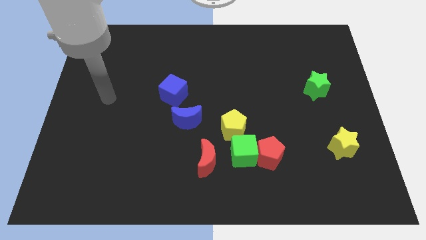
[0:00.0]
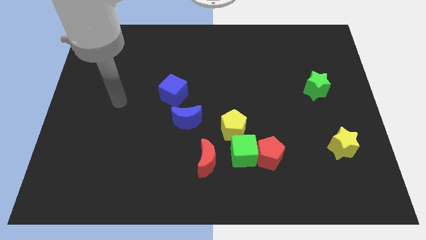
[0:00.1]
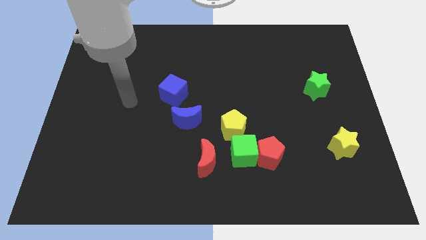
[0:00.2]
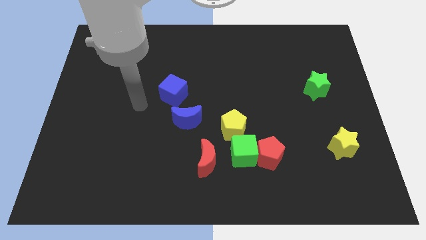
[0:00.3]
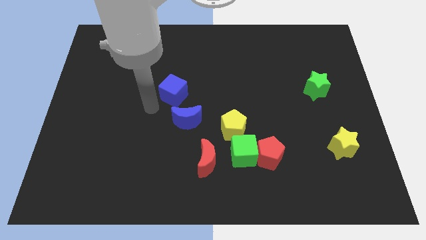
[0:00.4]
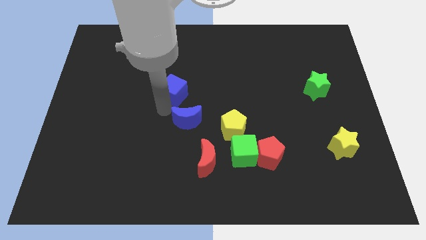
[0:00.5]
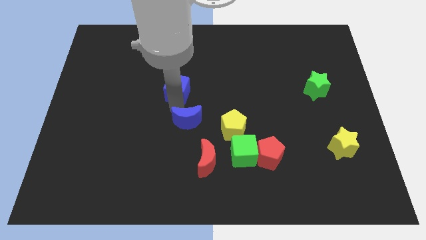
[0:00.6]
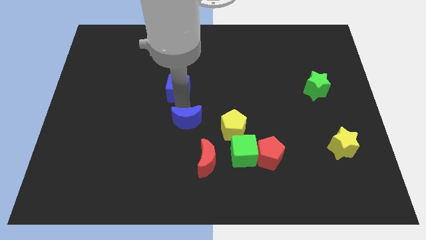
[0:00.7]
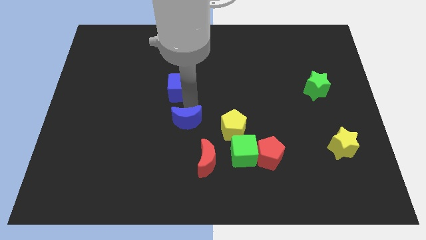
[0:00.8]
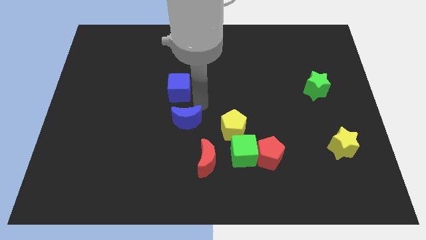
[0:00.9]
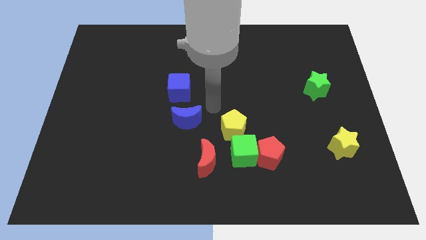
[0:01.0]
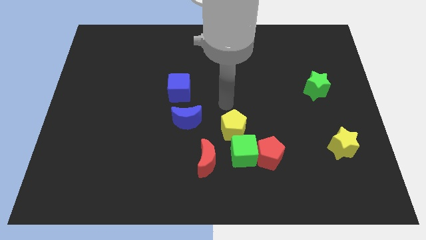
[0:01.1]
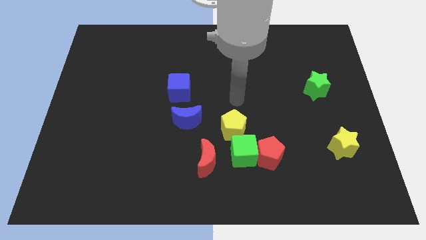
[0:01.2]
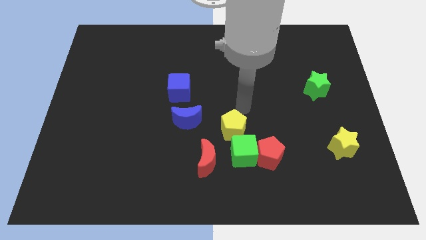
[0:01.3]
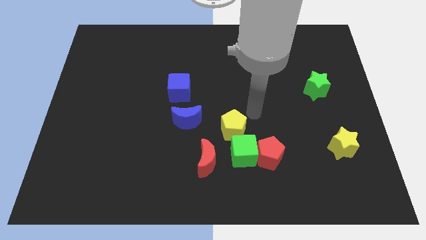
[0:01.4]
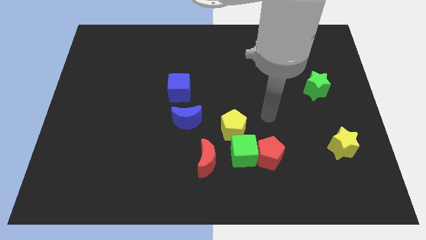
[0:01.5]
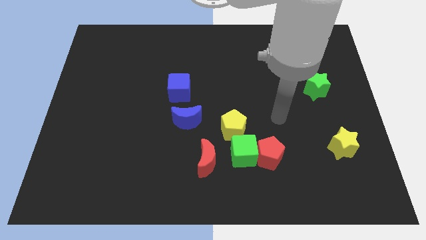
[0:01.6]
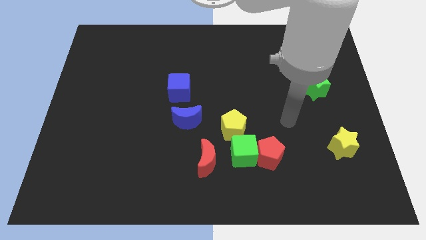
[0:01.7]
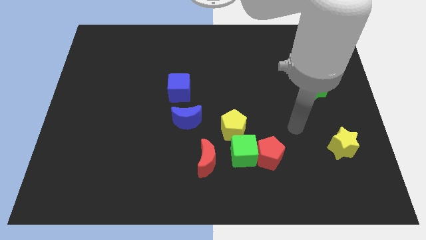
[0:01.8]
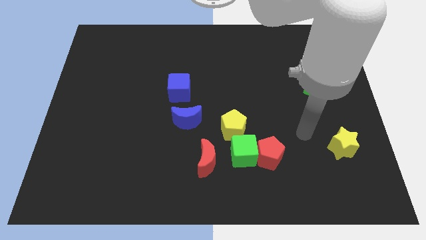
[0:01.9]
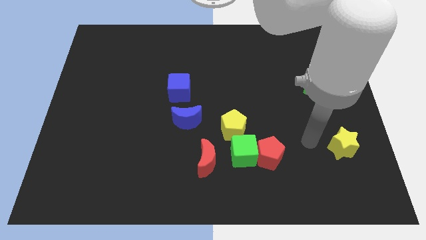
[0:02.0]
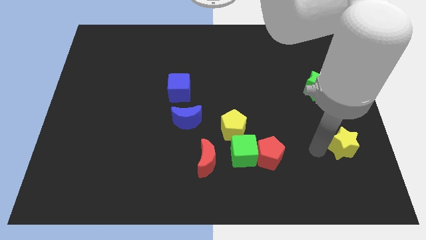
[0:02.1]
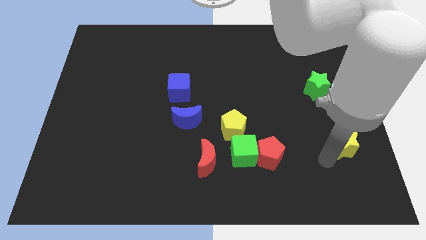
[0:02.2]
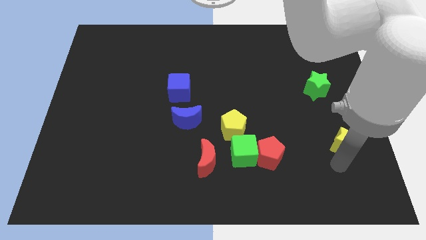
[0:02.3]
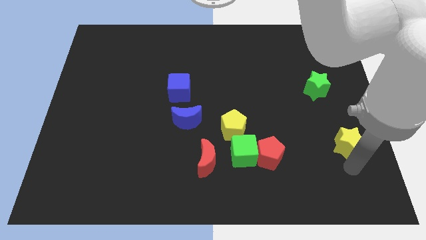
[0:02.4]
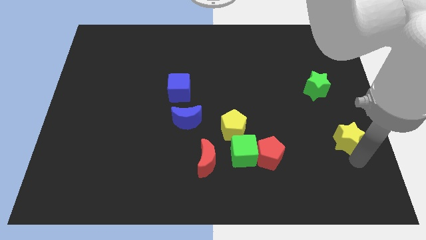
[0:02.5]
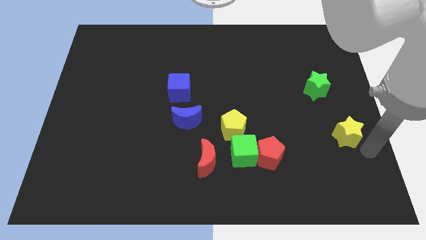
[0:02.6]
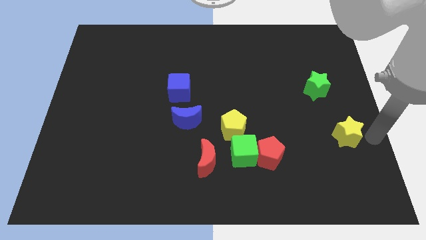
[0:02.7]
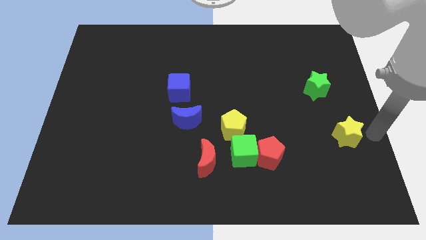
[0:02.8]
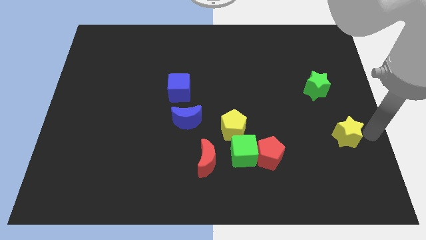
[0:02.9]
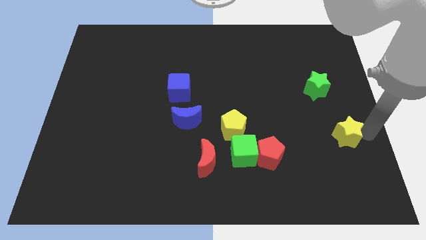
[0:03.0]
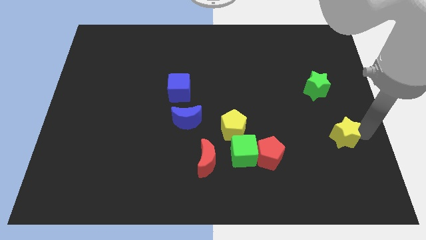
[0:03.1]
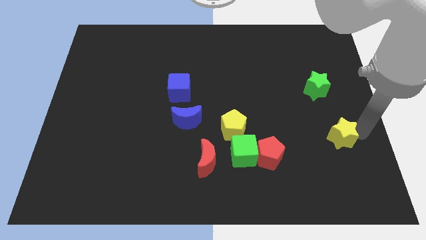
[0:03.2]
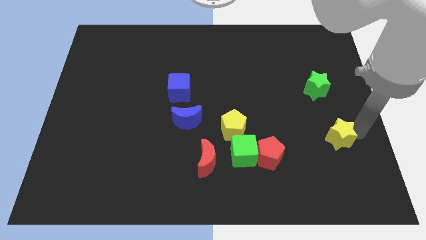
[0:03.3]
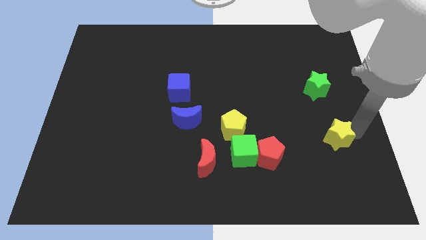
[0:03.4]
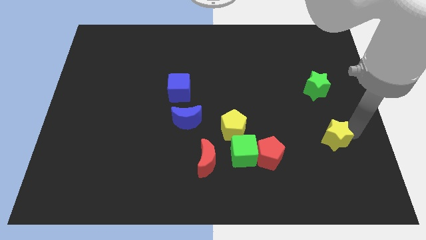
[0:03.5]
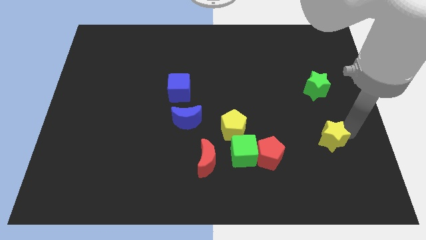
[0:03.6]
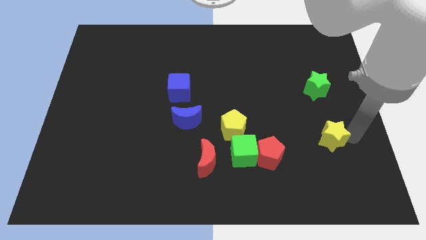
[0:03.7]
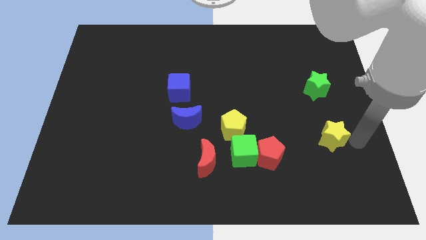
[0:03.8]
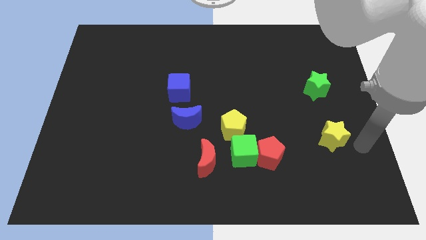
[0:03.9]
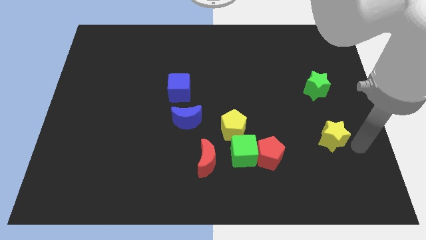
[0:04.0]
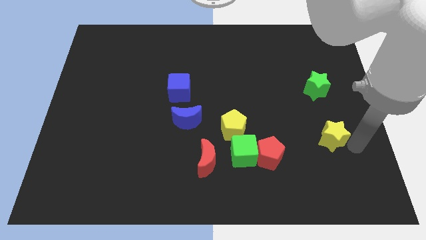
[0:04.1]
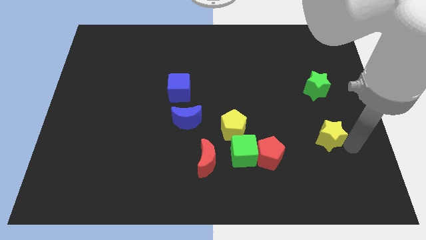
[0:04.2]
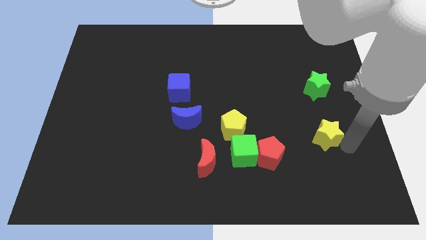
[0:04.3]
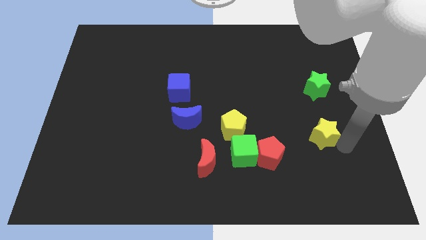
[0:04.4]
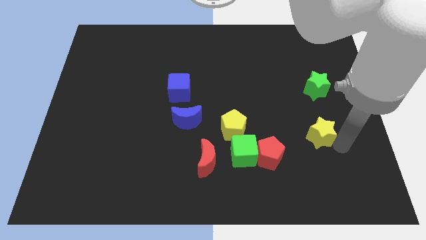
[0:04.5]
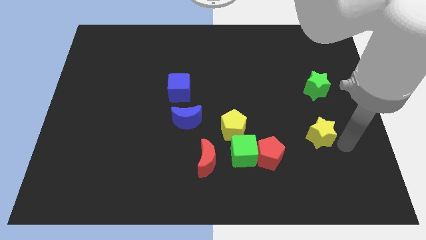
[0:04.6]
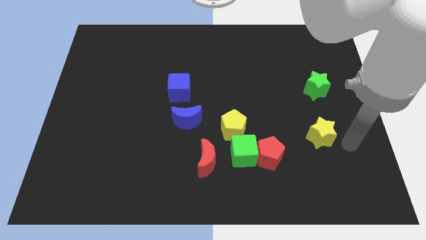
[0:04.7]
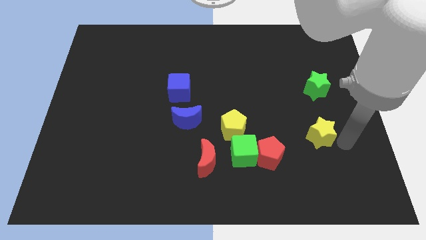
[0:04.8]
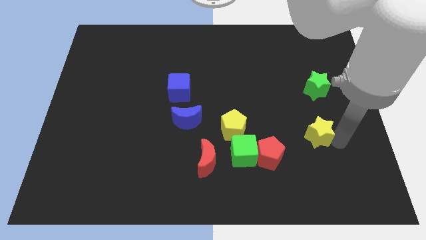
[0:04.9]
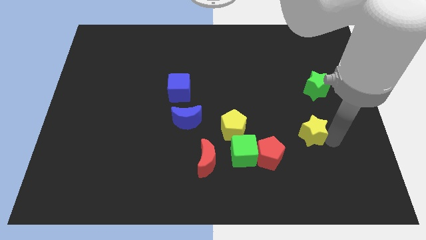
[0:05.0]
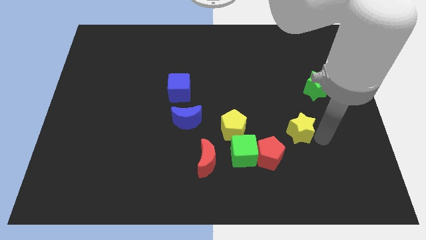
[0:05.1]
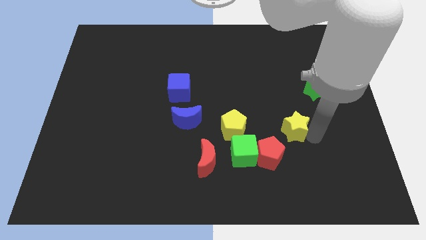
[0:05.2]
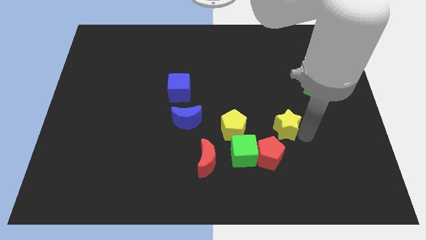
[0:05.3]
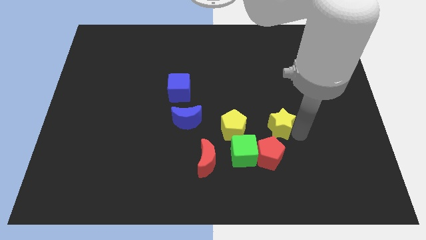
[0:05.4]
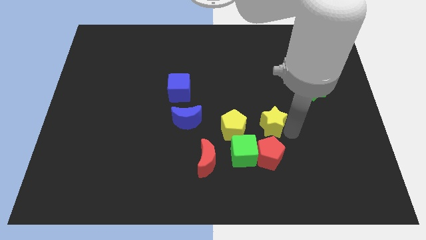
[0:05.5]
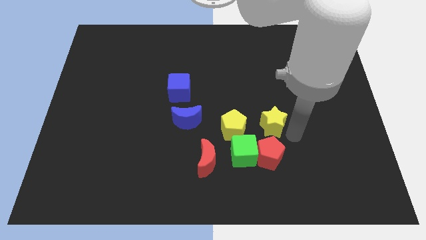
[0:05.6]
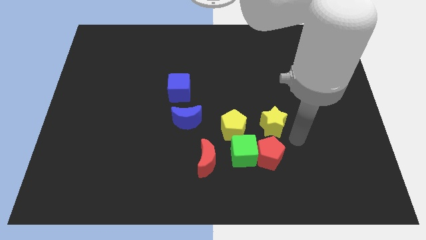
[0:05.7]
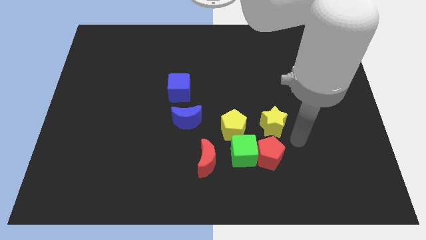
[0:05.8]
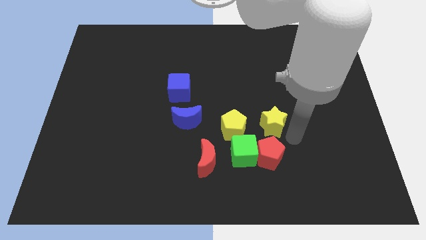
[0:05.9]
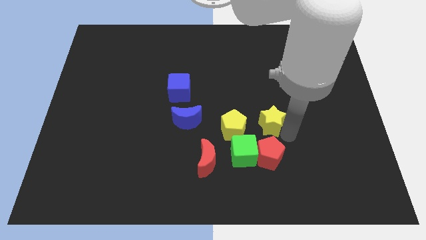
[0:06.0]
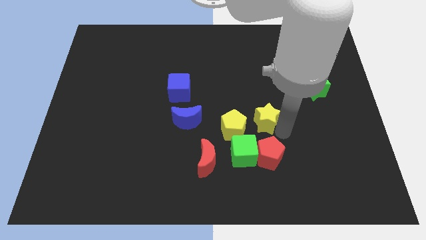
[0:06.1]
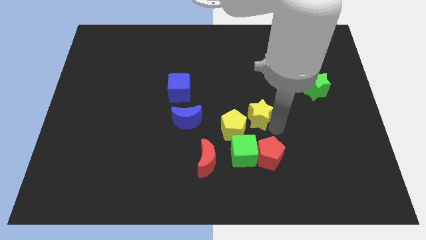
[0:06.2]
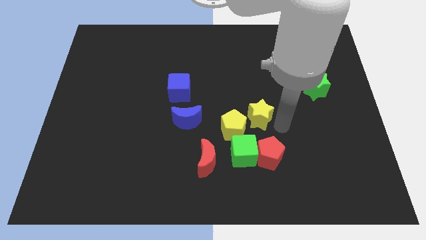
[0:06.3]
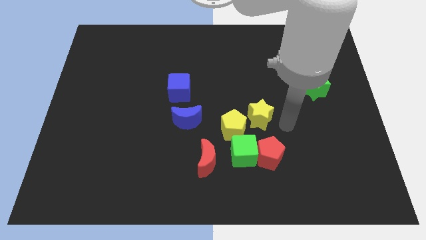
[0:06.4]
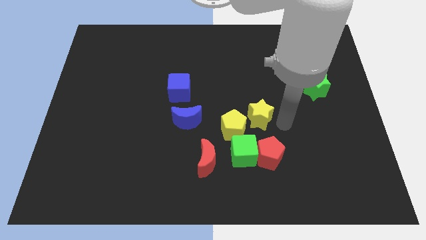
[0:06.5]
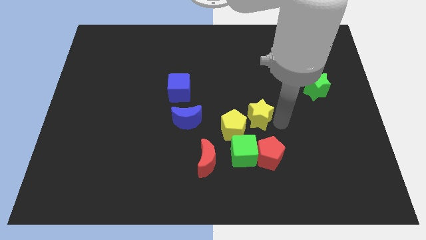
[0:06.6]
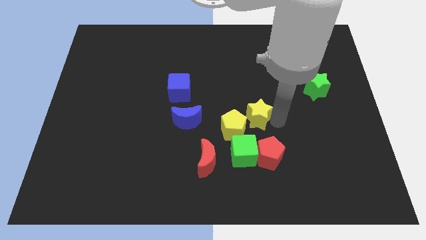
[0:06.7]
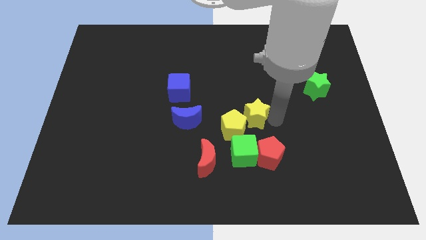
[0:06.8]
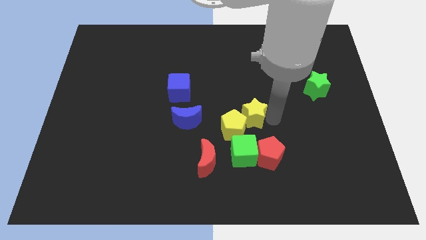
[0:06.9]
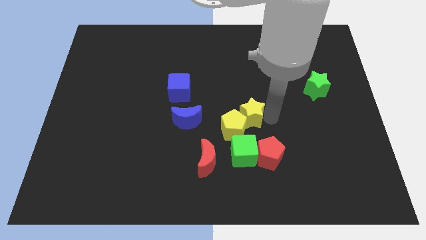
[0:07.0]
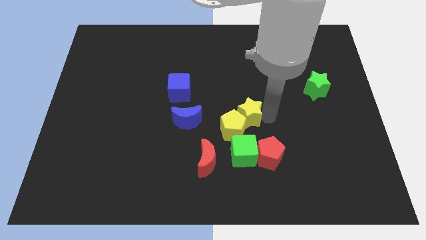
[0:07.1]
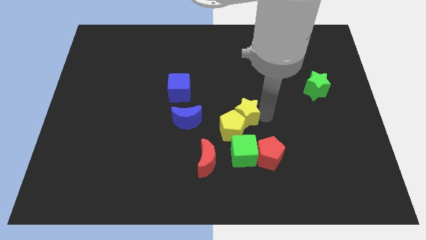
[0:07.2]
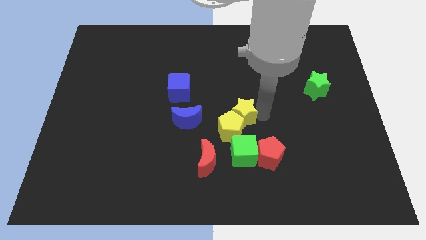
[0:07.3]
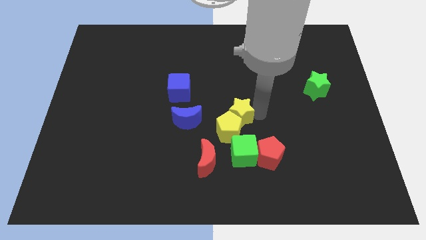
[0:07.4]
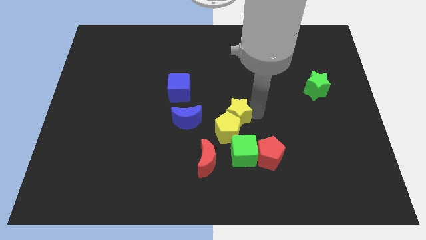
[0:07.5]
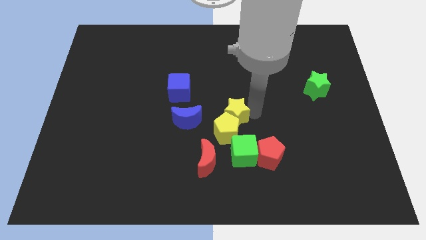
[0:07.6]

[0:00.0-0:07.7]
push the yellow star to the left
